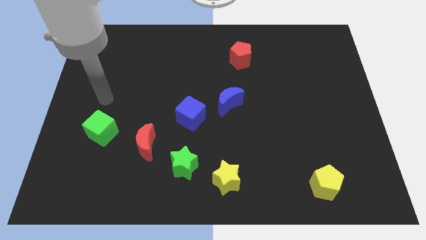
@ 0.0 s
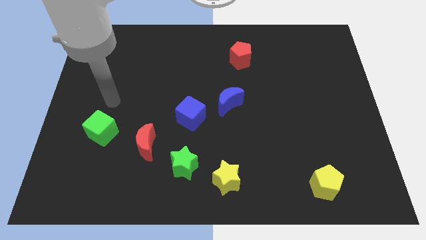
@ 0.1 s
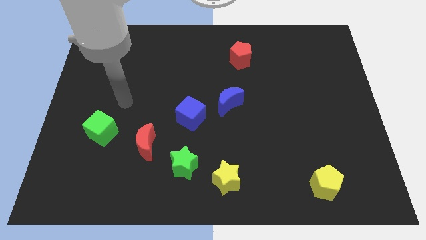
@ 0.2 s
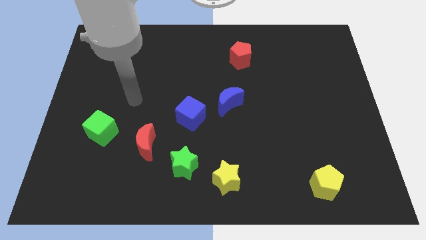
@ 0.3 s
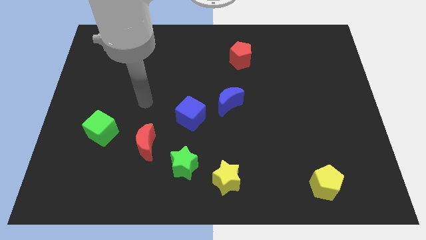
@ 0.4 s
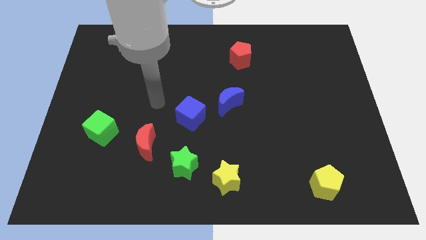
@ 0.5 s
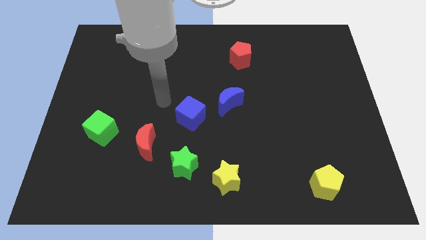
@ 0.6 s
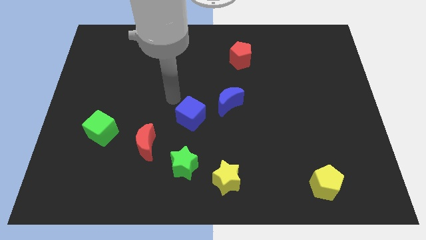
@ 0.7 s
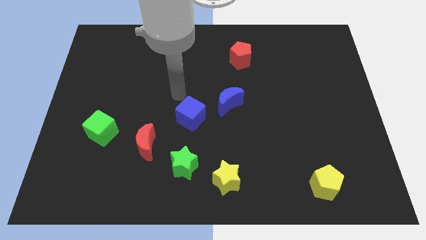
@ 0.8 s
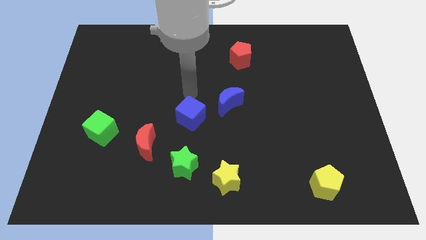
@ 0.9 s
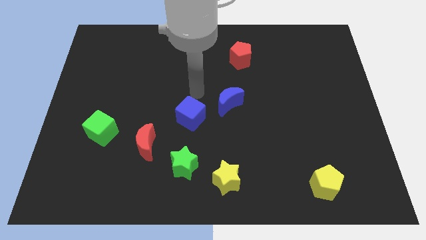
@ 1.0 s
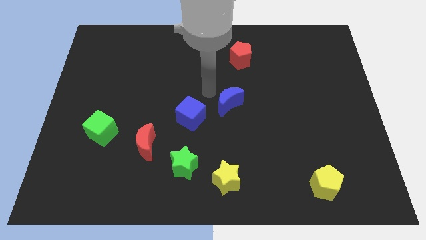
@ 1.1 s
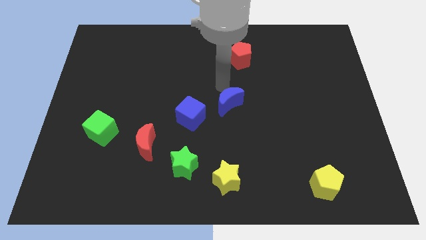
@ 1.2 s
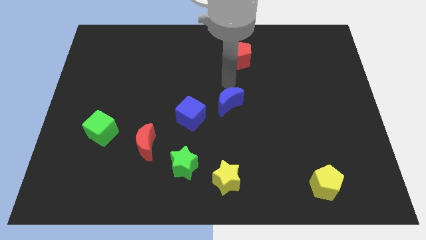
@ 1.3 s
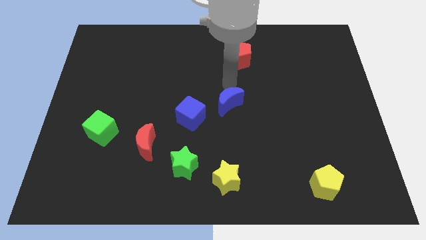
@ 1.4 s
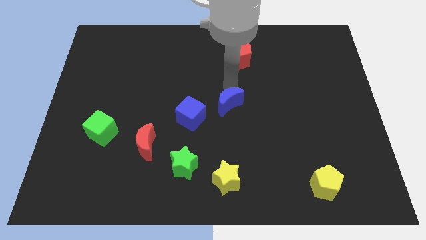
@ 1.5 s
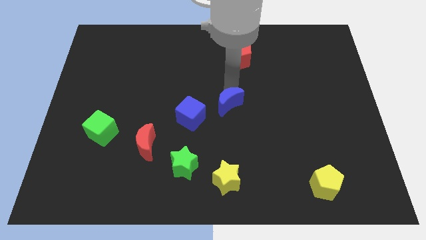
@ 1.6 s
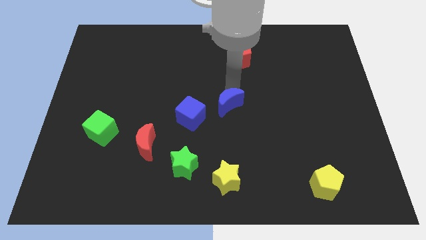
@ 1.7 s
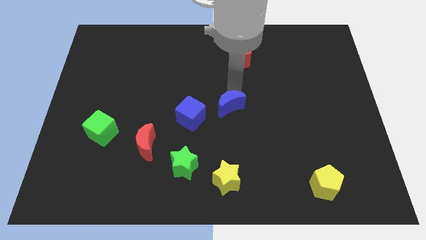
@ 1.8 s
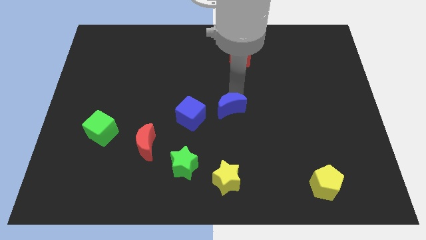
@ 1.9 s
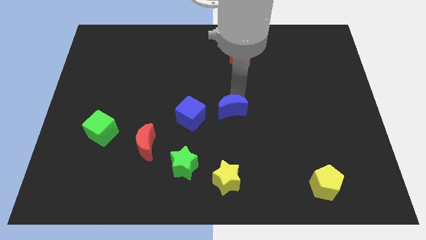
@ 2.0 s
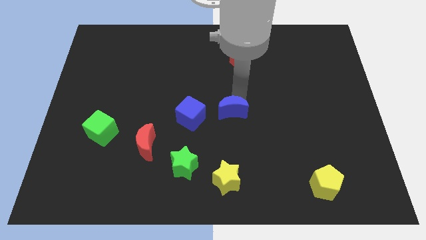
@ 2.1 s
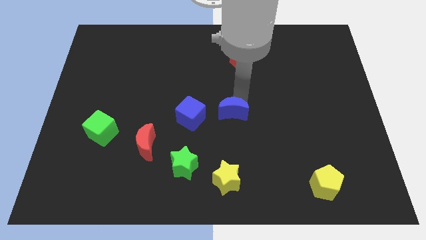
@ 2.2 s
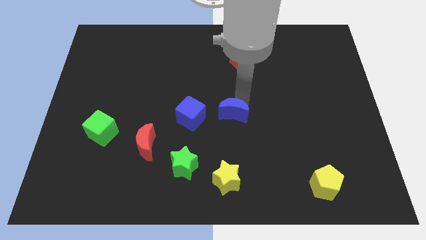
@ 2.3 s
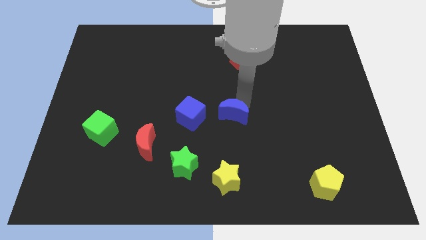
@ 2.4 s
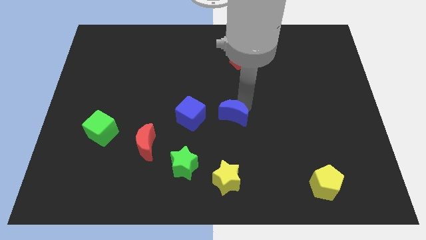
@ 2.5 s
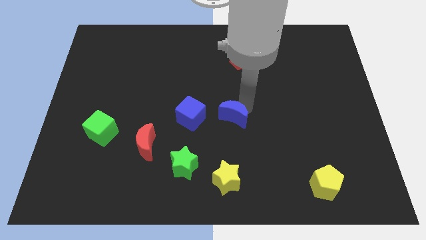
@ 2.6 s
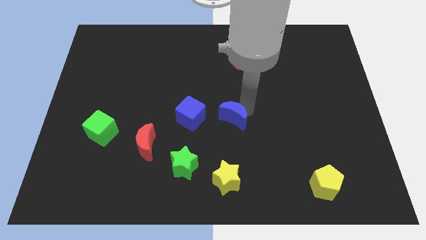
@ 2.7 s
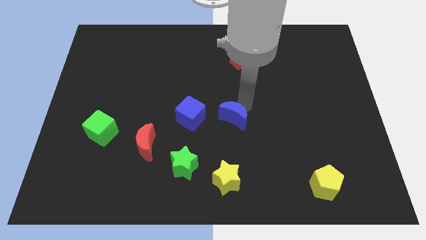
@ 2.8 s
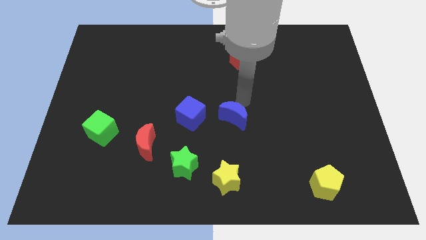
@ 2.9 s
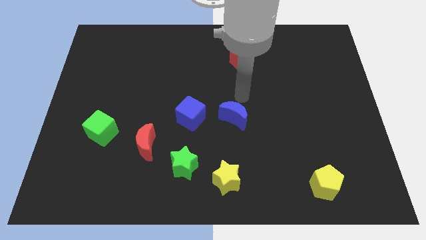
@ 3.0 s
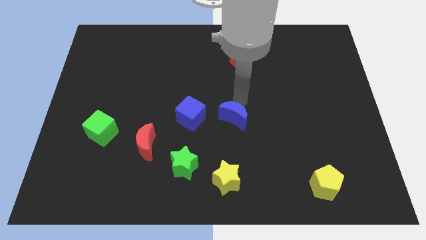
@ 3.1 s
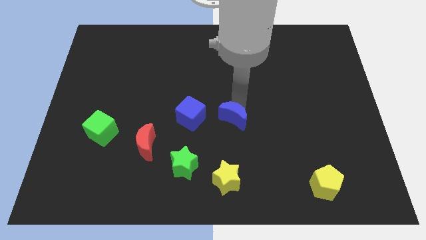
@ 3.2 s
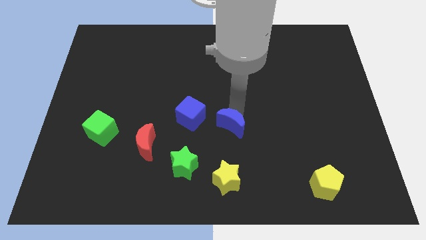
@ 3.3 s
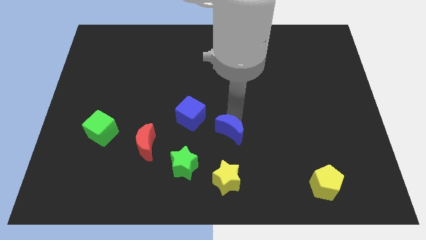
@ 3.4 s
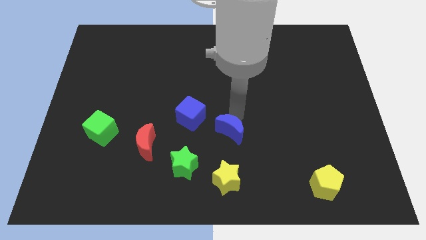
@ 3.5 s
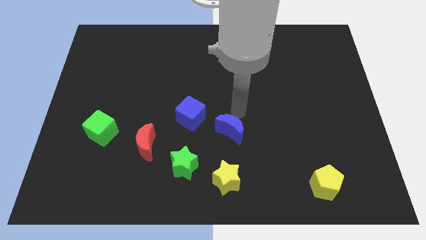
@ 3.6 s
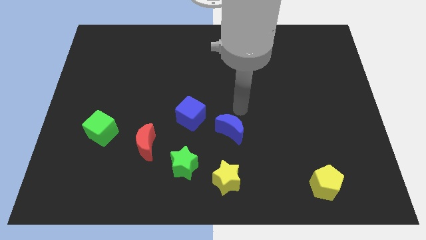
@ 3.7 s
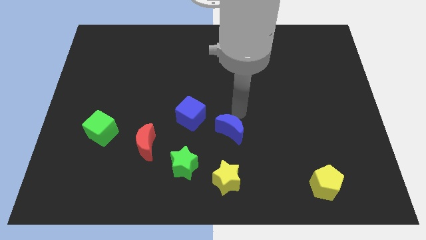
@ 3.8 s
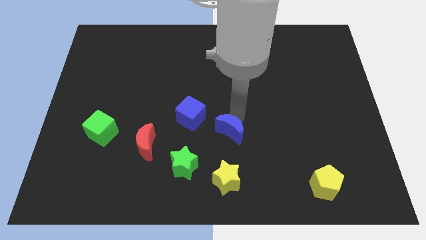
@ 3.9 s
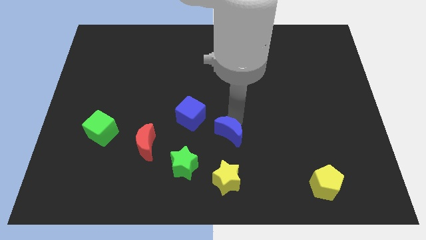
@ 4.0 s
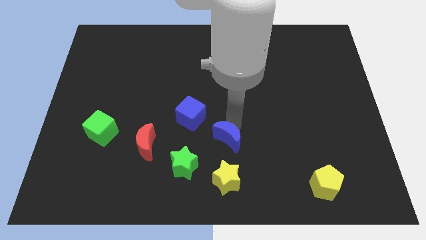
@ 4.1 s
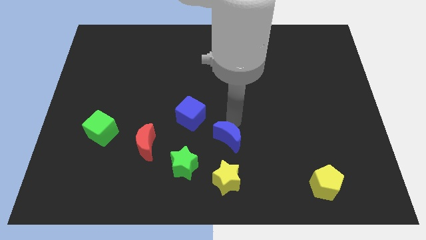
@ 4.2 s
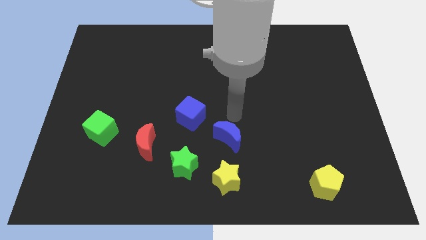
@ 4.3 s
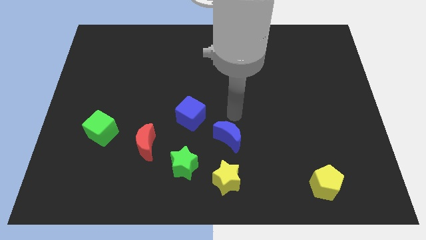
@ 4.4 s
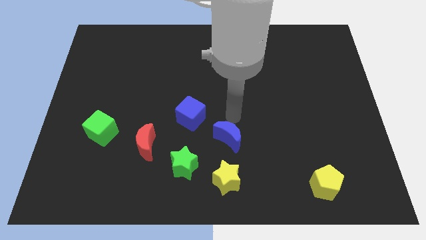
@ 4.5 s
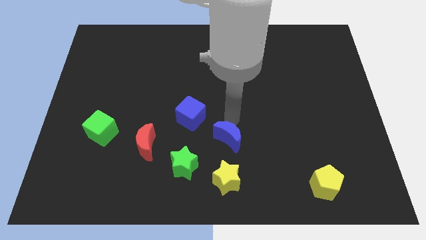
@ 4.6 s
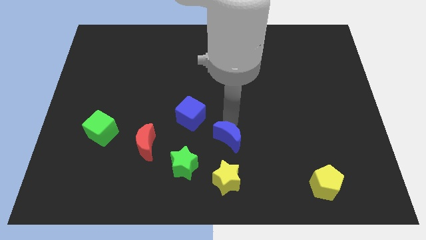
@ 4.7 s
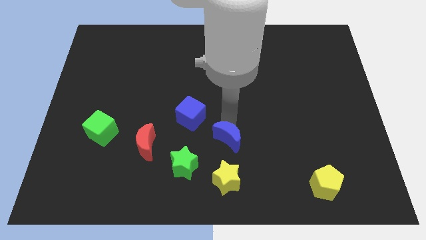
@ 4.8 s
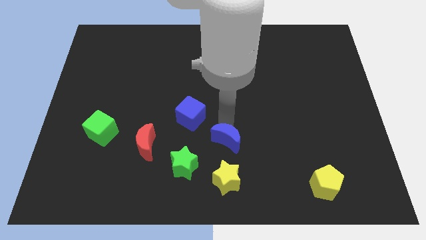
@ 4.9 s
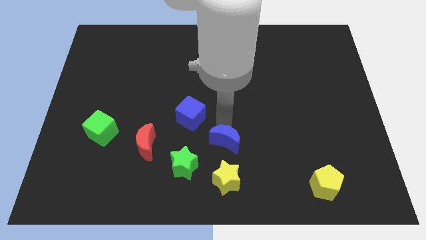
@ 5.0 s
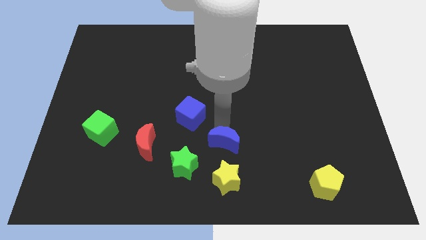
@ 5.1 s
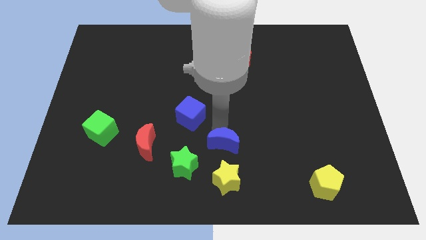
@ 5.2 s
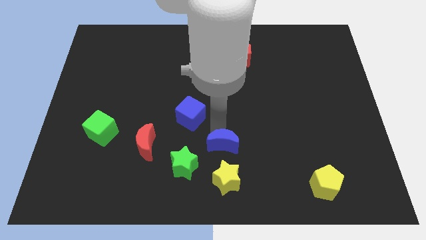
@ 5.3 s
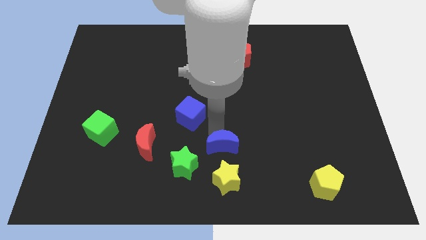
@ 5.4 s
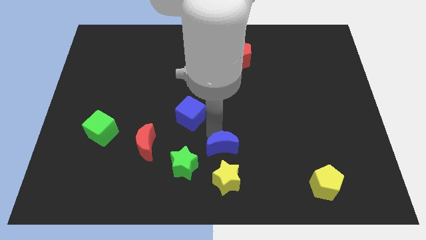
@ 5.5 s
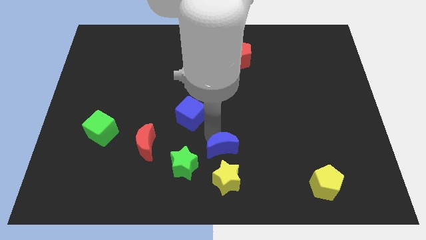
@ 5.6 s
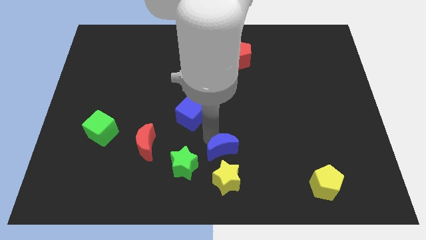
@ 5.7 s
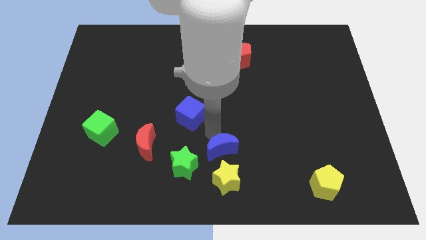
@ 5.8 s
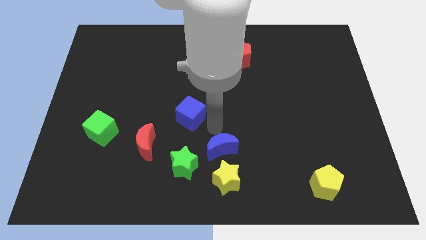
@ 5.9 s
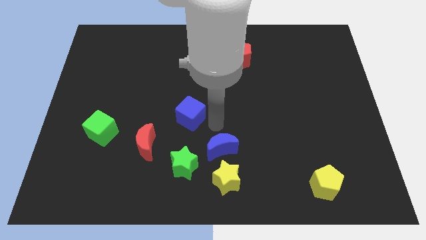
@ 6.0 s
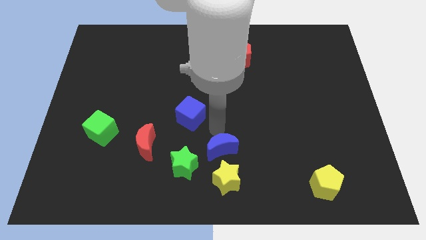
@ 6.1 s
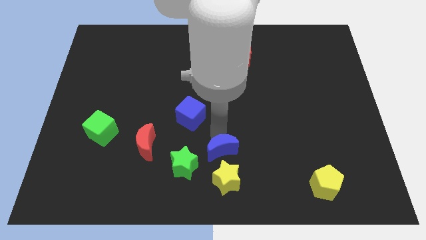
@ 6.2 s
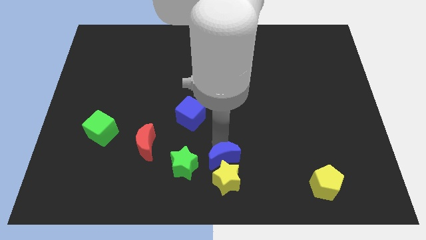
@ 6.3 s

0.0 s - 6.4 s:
put the blue moon close to the yellow star
